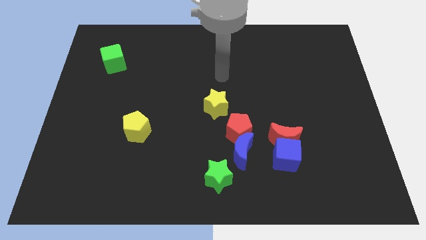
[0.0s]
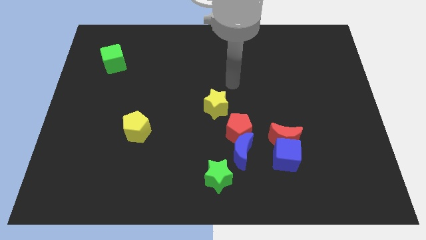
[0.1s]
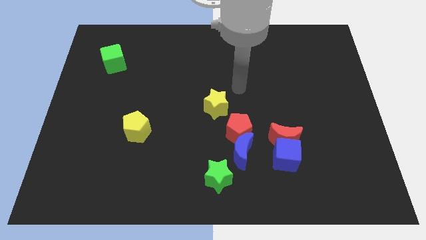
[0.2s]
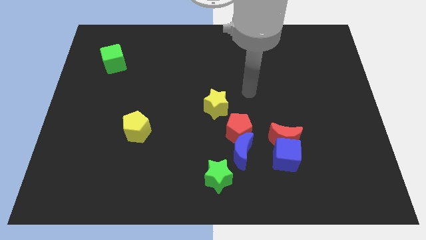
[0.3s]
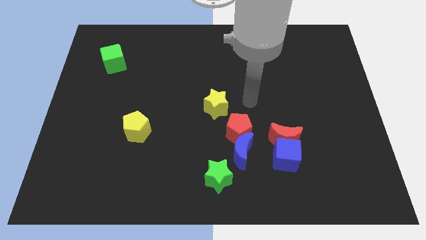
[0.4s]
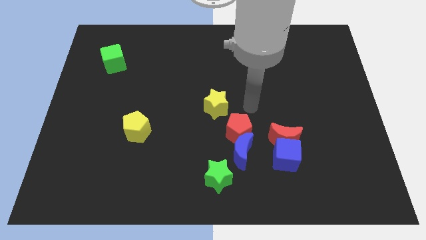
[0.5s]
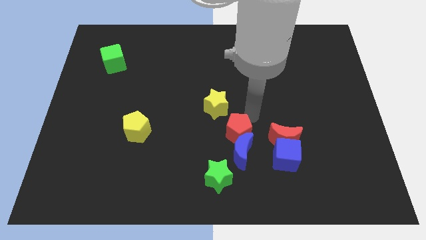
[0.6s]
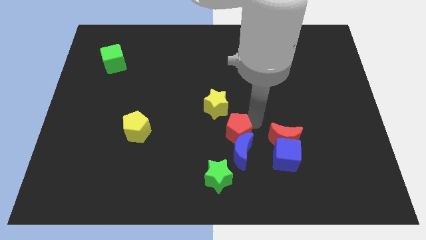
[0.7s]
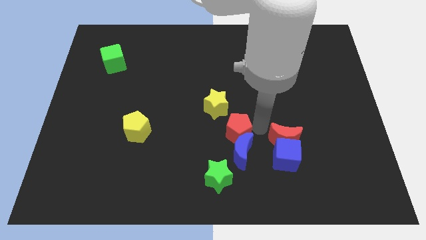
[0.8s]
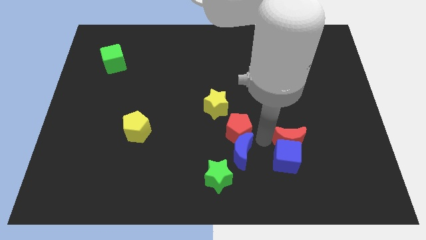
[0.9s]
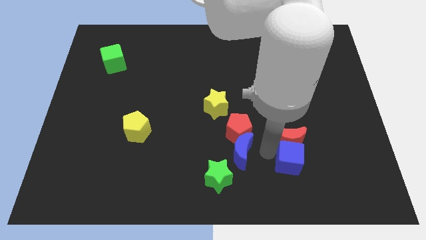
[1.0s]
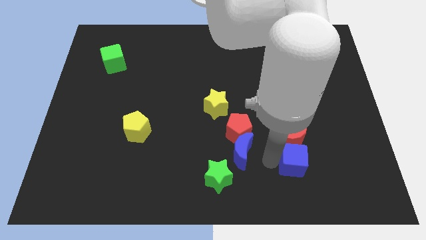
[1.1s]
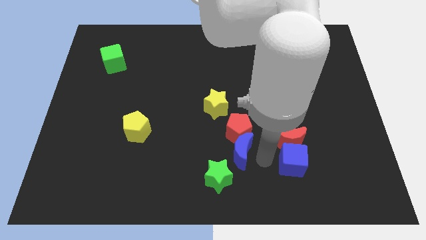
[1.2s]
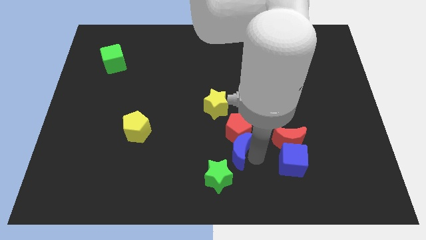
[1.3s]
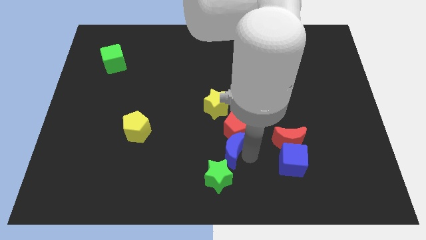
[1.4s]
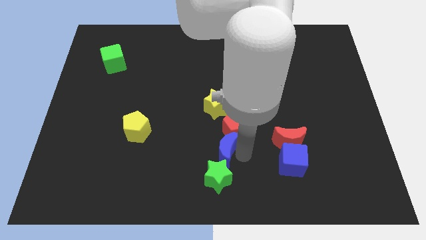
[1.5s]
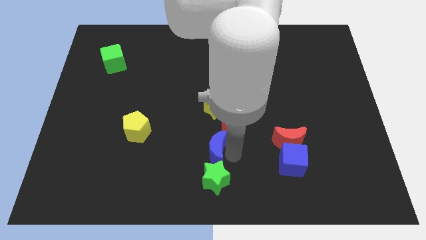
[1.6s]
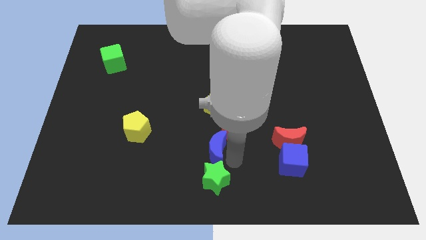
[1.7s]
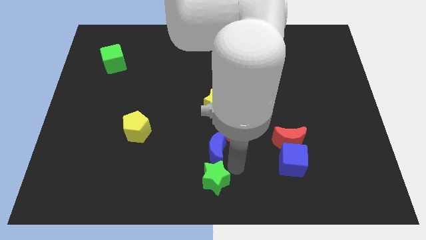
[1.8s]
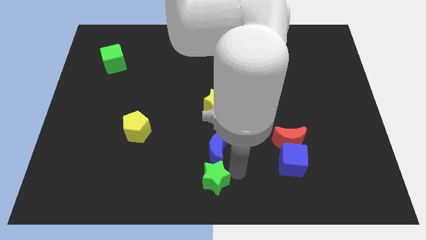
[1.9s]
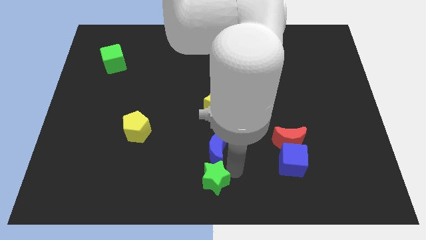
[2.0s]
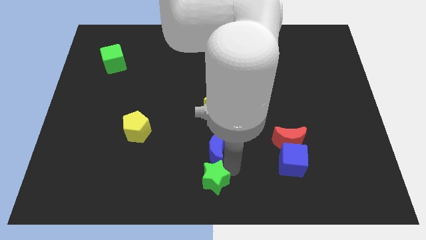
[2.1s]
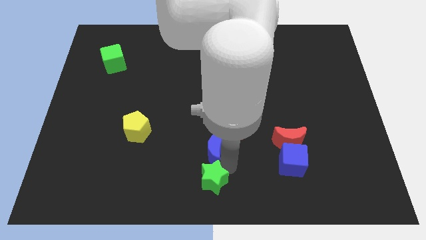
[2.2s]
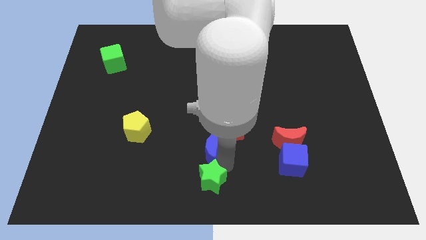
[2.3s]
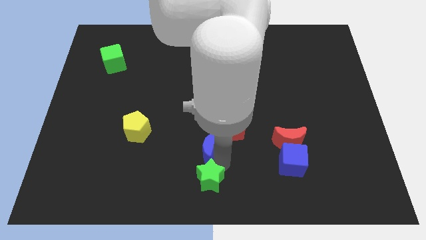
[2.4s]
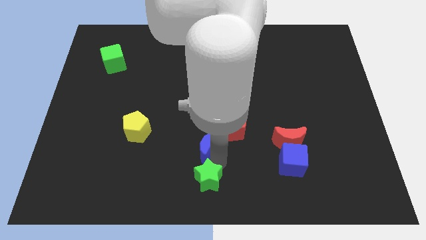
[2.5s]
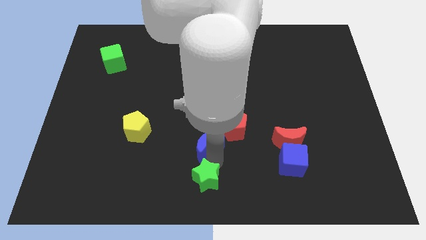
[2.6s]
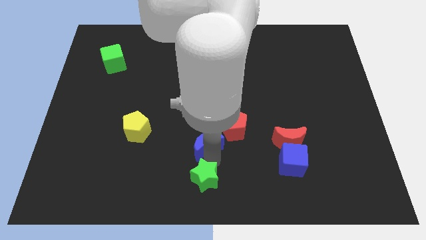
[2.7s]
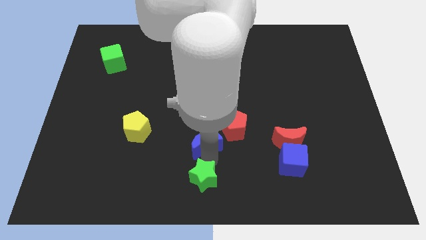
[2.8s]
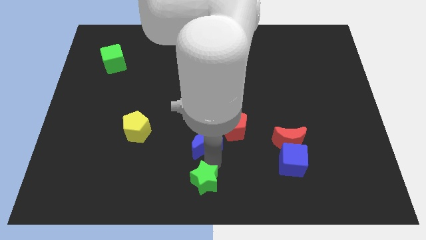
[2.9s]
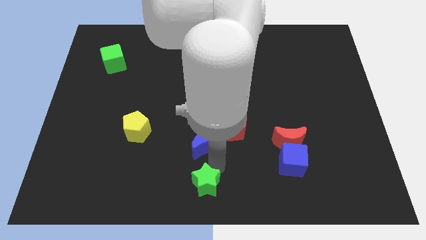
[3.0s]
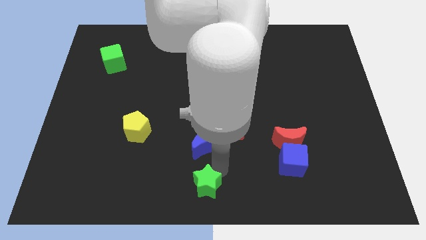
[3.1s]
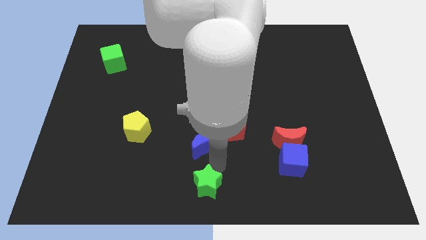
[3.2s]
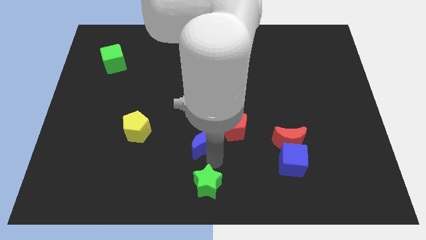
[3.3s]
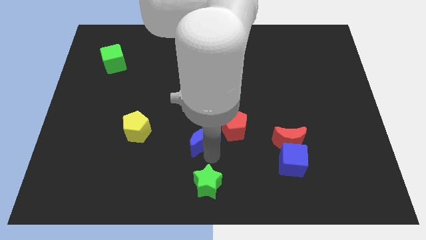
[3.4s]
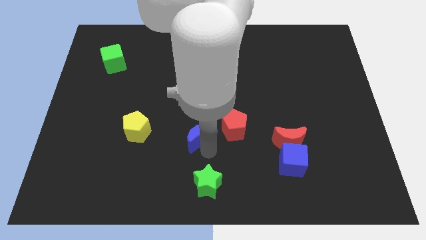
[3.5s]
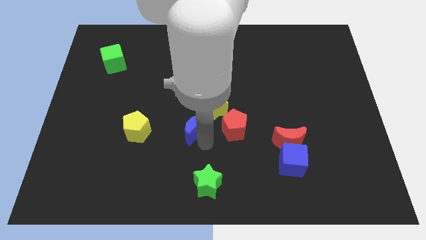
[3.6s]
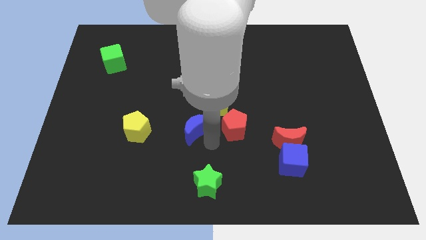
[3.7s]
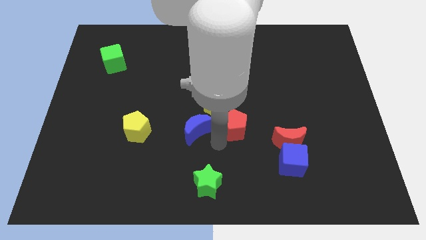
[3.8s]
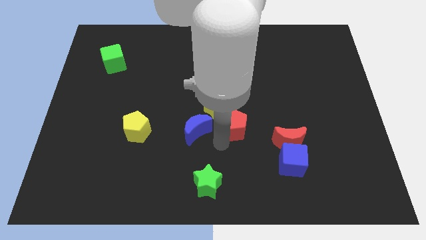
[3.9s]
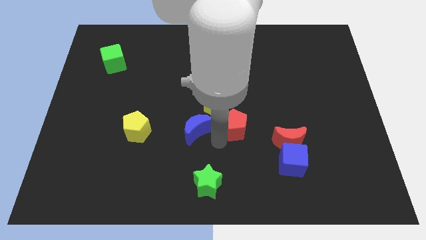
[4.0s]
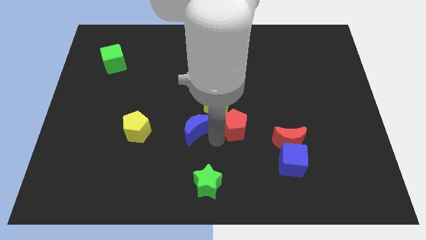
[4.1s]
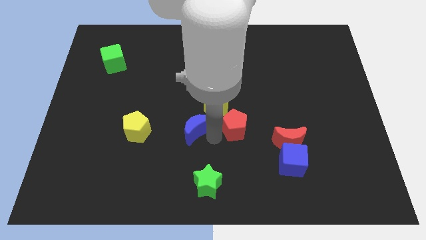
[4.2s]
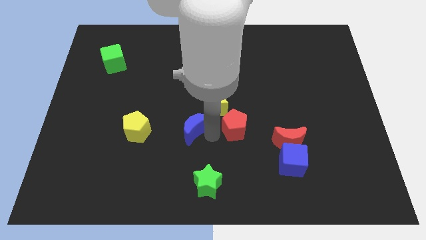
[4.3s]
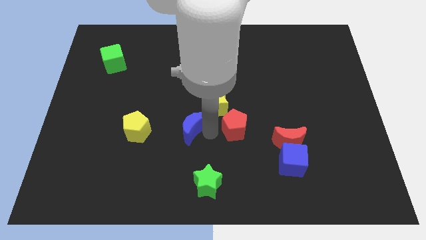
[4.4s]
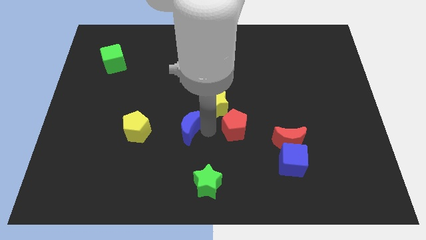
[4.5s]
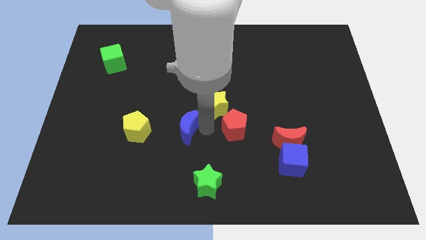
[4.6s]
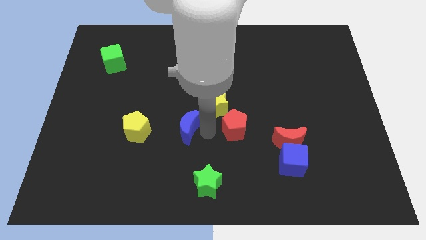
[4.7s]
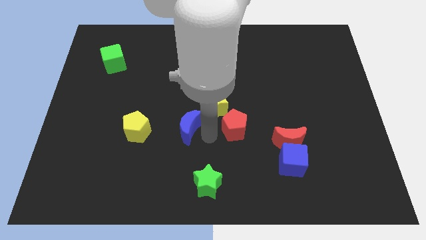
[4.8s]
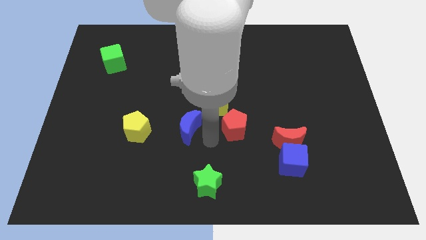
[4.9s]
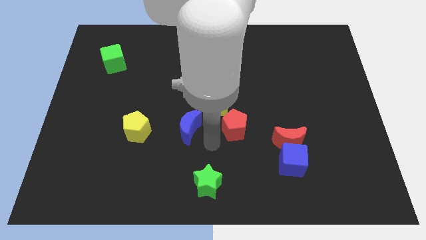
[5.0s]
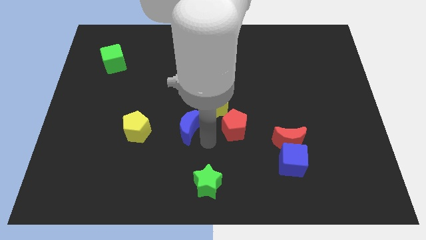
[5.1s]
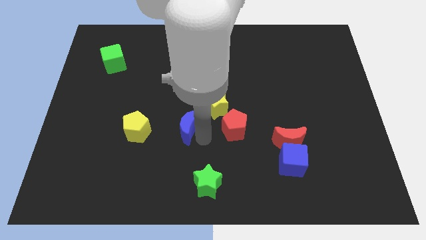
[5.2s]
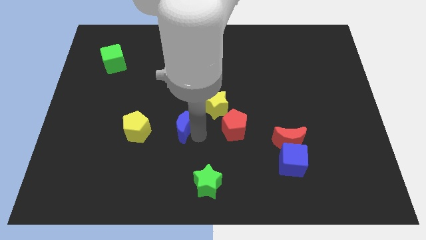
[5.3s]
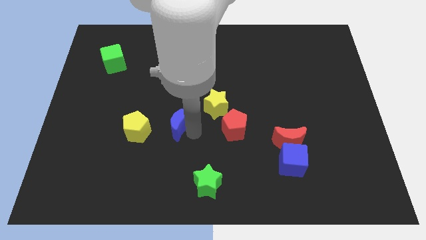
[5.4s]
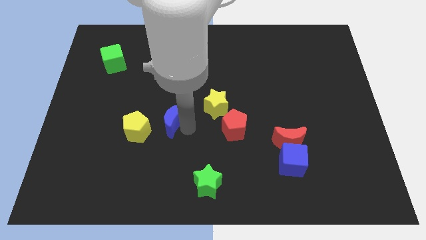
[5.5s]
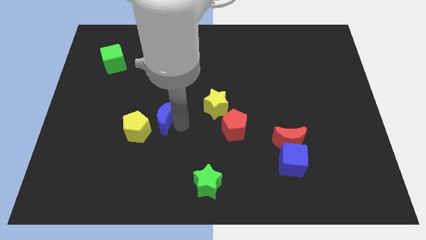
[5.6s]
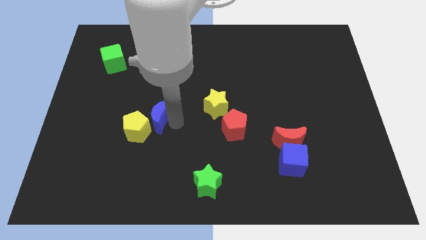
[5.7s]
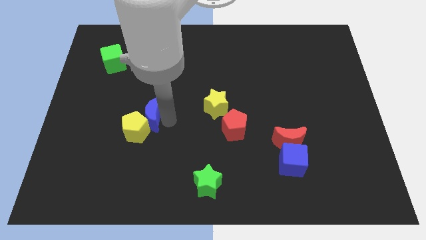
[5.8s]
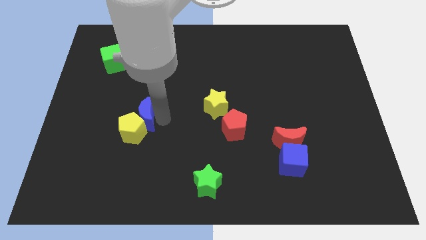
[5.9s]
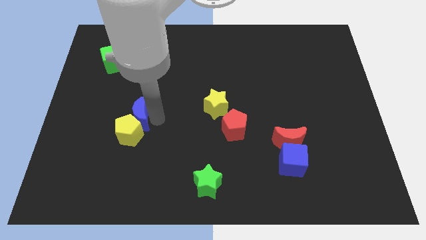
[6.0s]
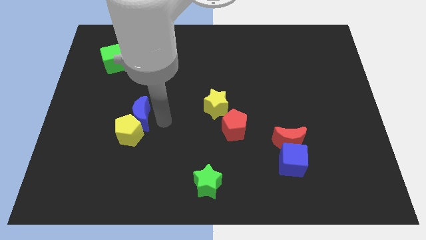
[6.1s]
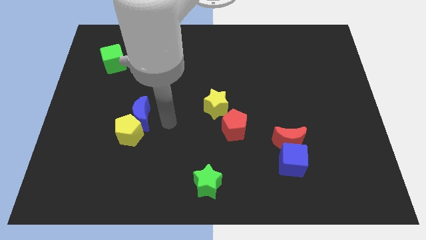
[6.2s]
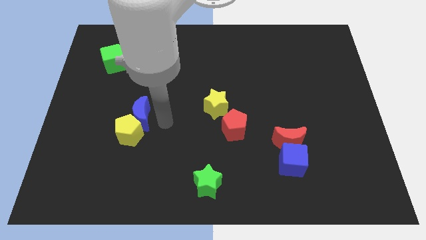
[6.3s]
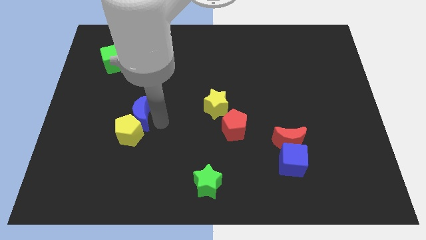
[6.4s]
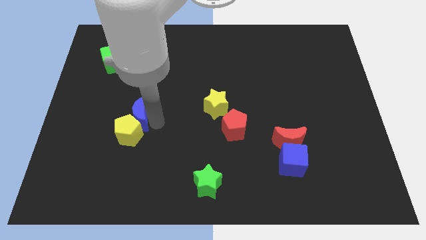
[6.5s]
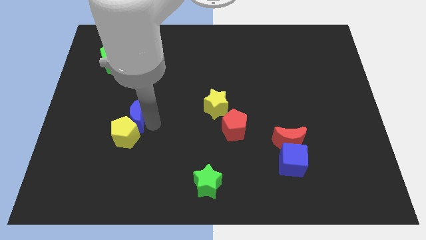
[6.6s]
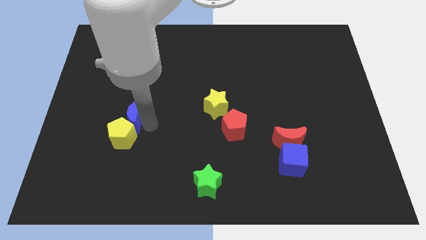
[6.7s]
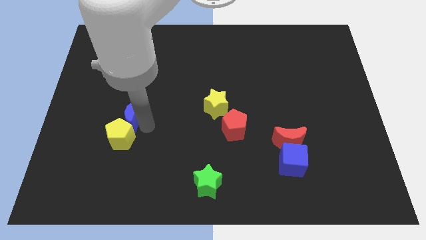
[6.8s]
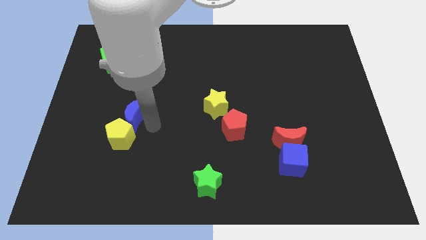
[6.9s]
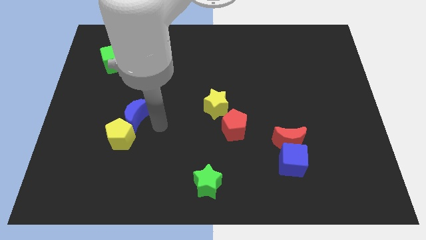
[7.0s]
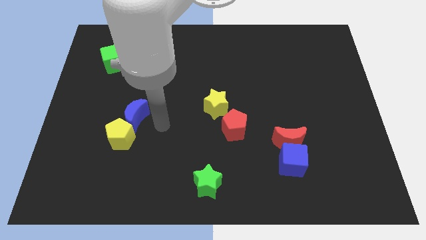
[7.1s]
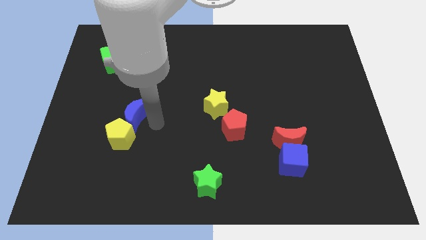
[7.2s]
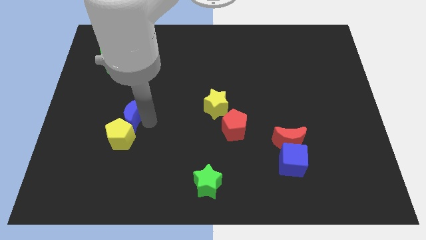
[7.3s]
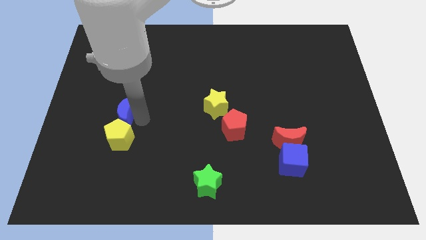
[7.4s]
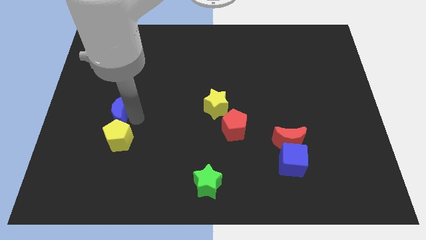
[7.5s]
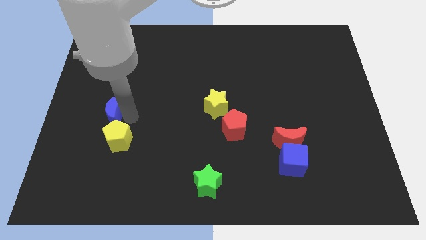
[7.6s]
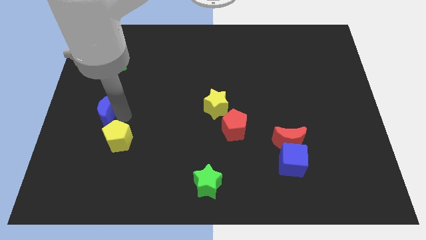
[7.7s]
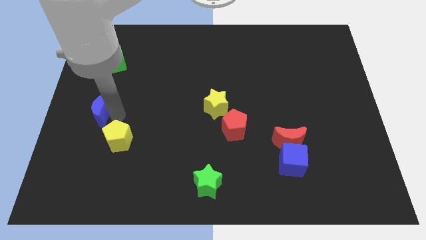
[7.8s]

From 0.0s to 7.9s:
push the blue moon to the left side of the board
